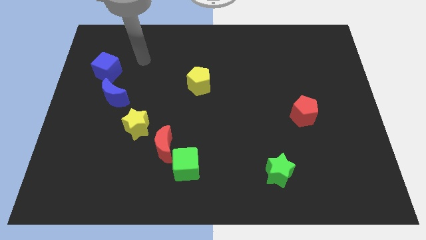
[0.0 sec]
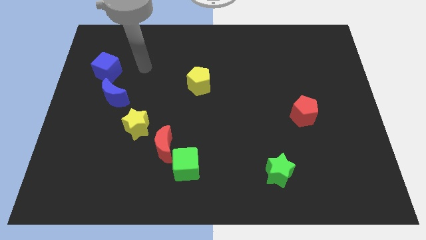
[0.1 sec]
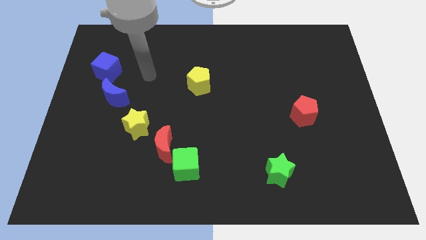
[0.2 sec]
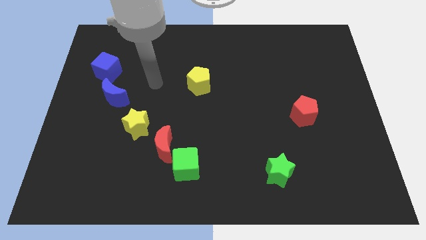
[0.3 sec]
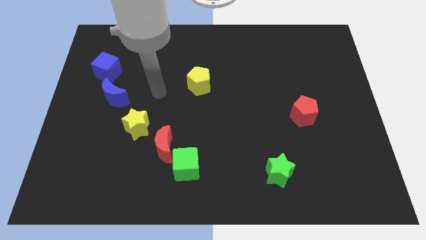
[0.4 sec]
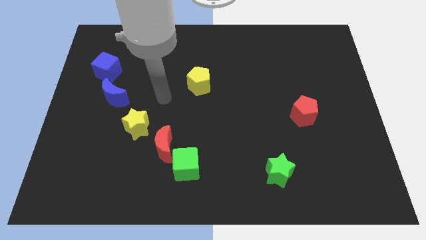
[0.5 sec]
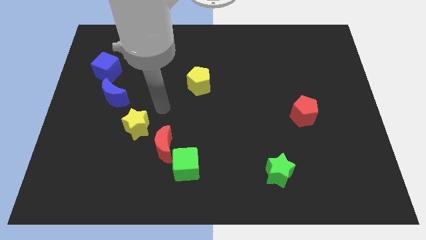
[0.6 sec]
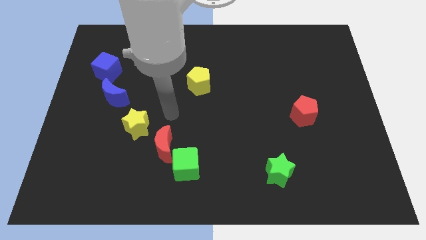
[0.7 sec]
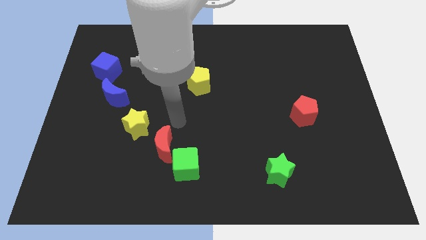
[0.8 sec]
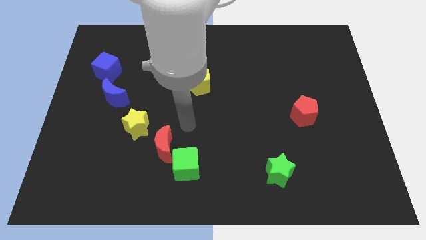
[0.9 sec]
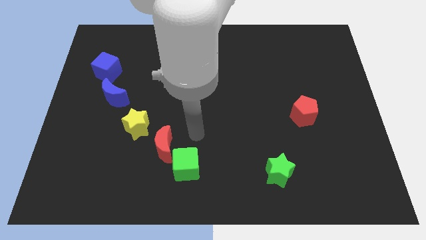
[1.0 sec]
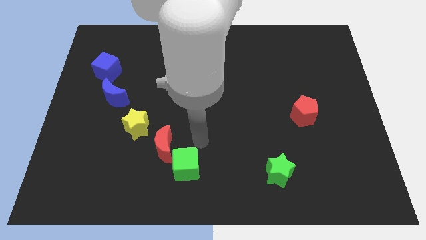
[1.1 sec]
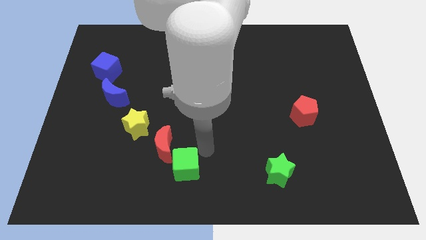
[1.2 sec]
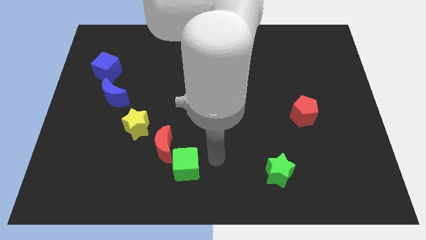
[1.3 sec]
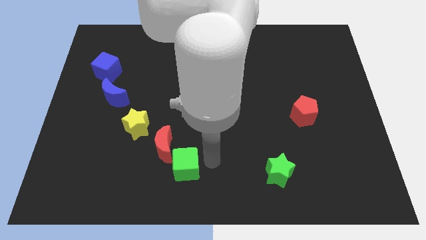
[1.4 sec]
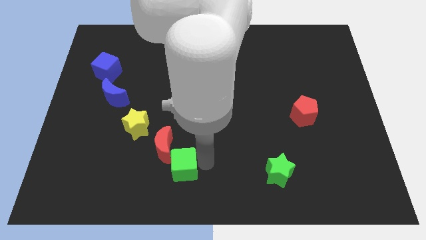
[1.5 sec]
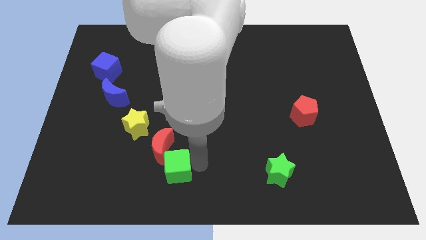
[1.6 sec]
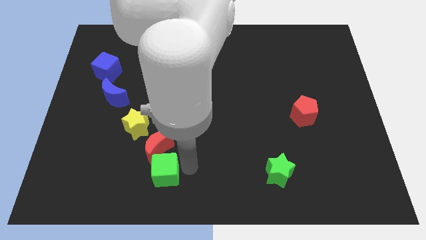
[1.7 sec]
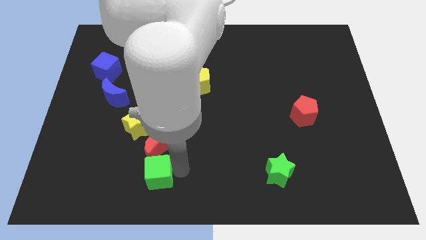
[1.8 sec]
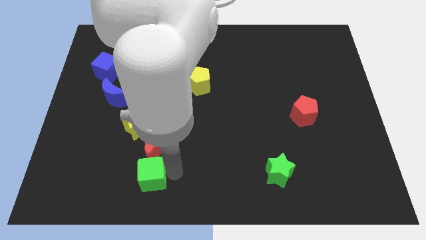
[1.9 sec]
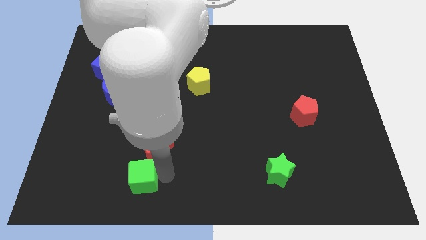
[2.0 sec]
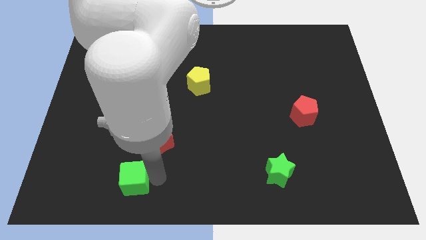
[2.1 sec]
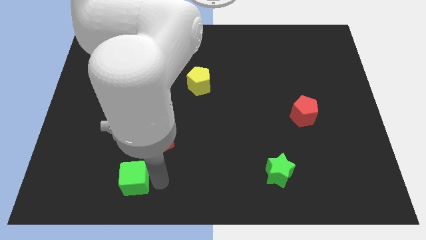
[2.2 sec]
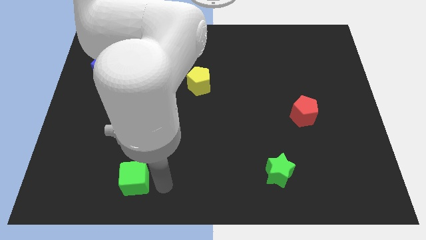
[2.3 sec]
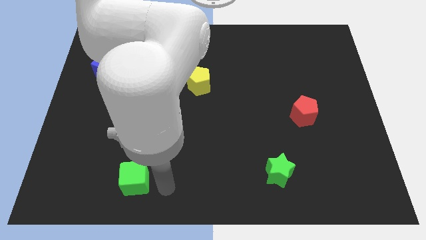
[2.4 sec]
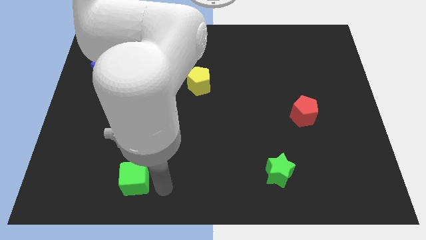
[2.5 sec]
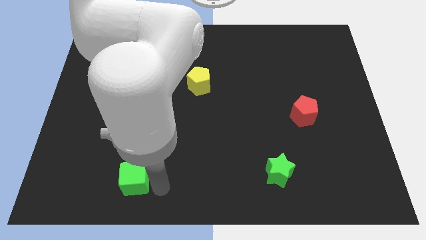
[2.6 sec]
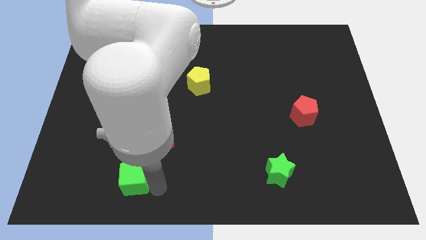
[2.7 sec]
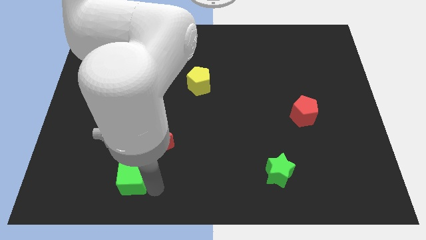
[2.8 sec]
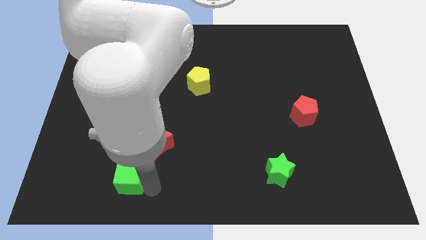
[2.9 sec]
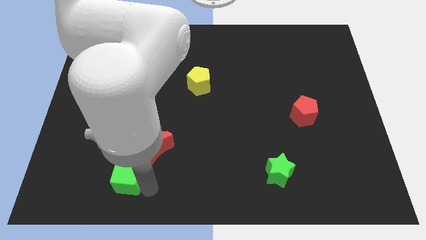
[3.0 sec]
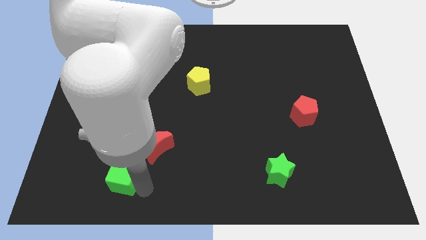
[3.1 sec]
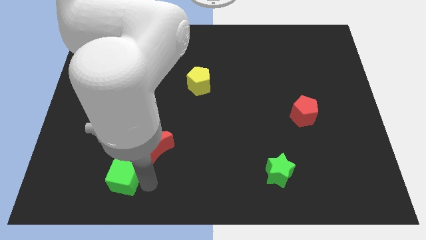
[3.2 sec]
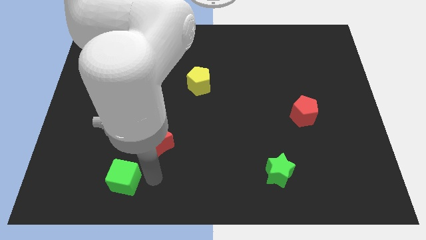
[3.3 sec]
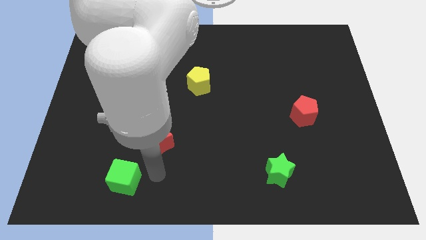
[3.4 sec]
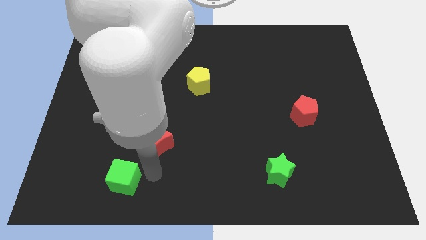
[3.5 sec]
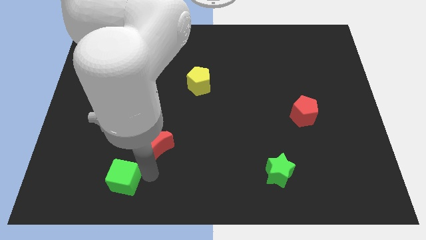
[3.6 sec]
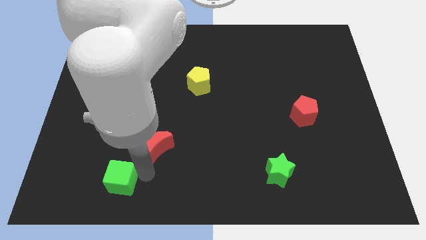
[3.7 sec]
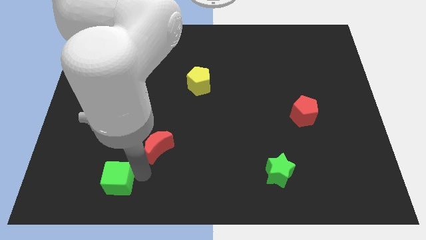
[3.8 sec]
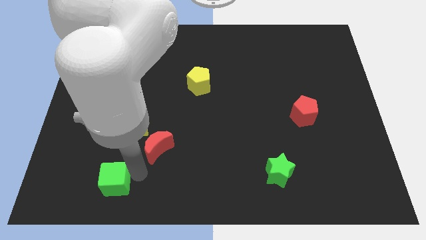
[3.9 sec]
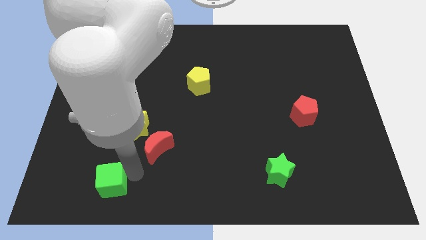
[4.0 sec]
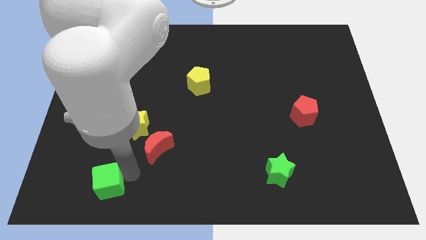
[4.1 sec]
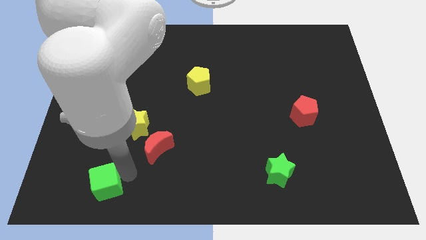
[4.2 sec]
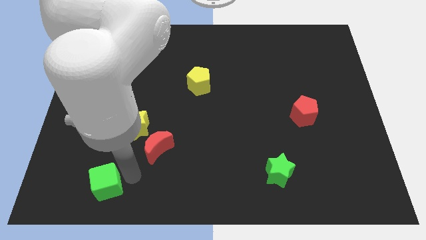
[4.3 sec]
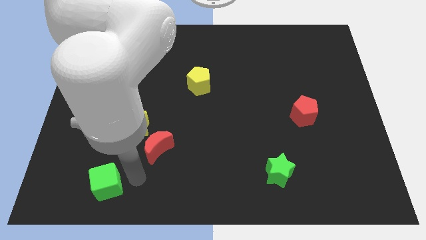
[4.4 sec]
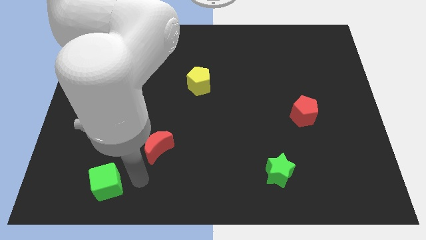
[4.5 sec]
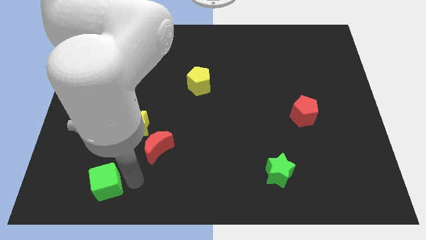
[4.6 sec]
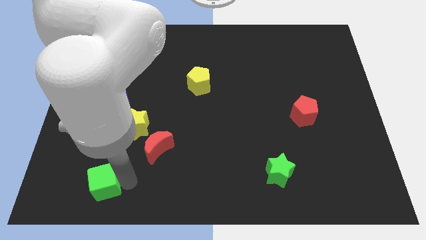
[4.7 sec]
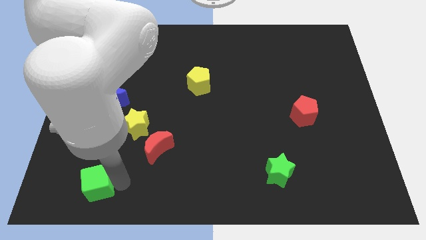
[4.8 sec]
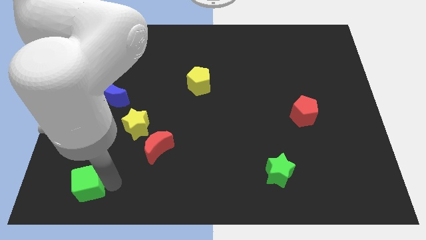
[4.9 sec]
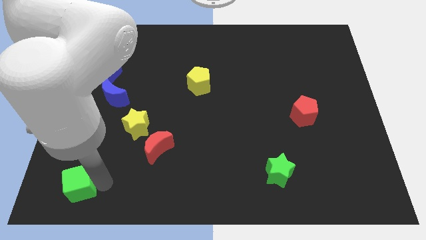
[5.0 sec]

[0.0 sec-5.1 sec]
move the green cube to the bottom left corner

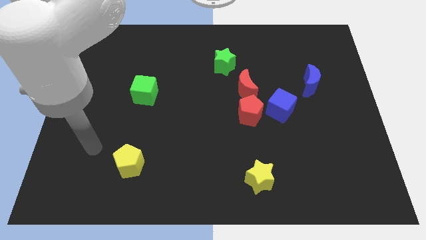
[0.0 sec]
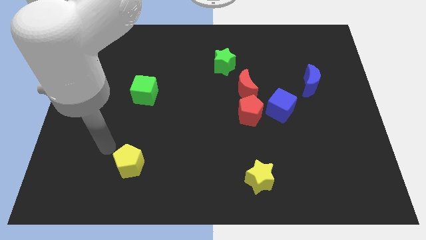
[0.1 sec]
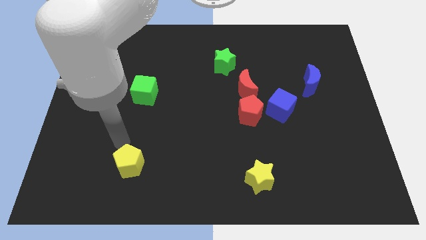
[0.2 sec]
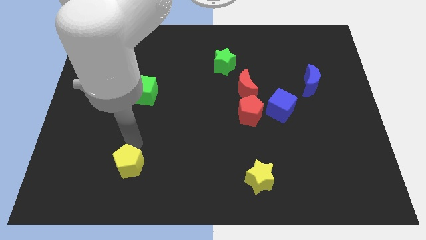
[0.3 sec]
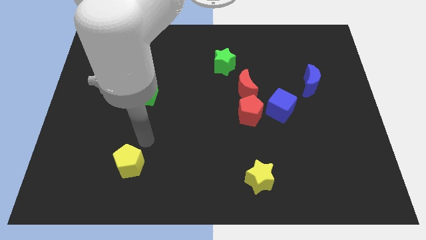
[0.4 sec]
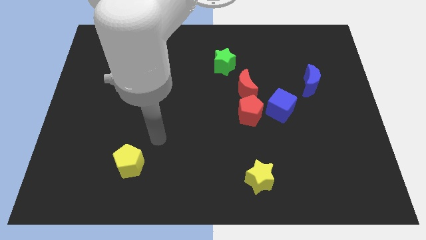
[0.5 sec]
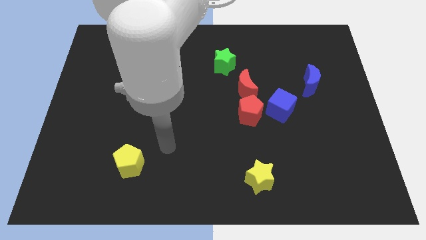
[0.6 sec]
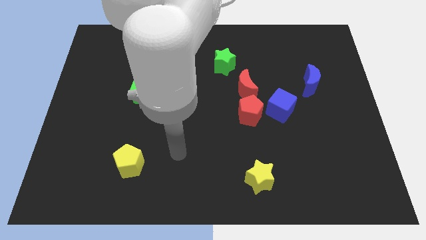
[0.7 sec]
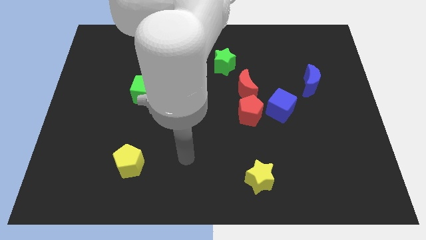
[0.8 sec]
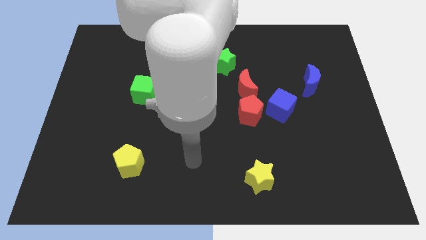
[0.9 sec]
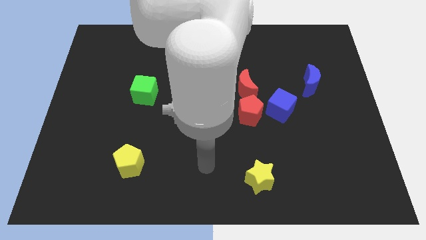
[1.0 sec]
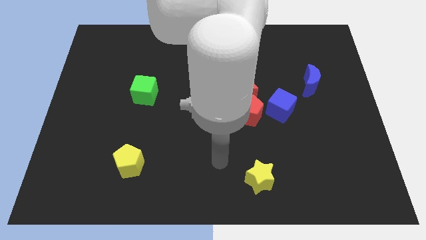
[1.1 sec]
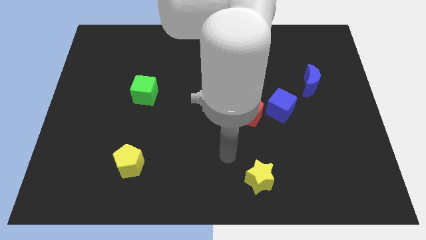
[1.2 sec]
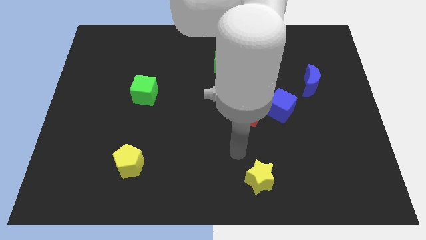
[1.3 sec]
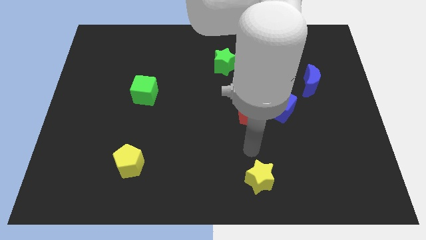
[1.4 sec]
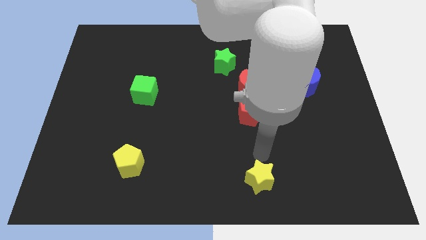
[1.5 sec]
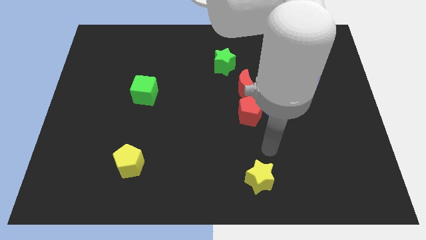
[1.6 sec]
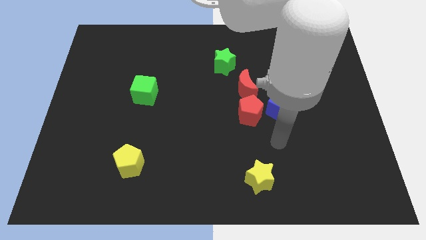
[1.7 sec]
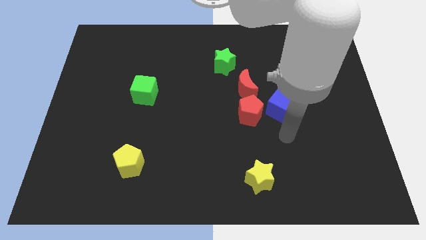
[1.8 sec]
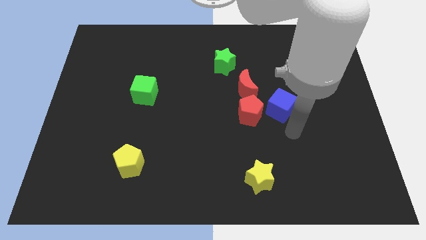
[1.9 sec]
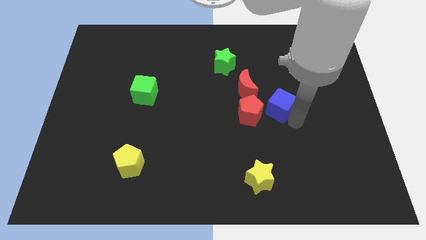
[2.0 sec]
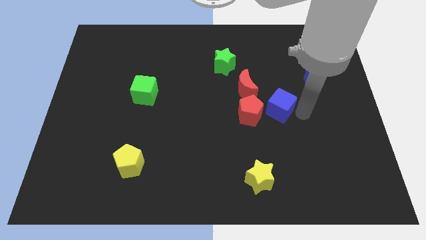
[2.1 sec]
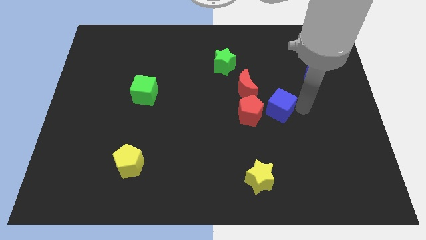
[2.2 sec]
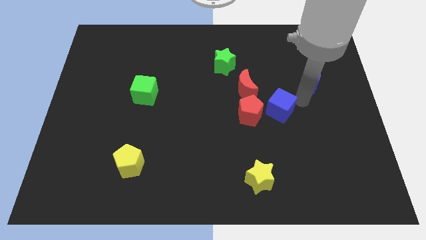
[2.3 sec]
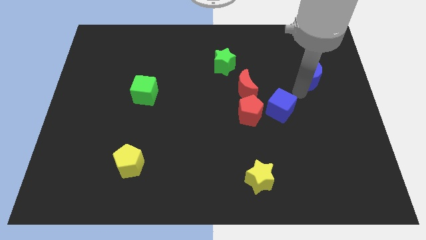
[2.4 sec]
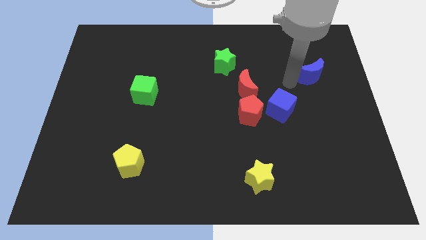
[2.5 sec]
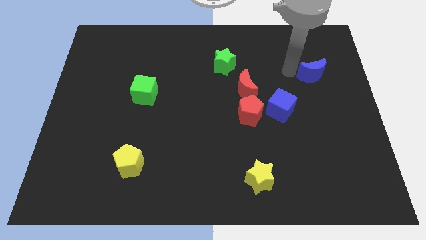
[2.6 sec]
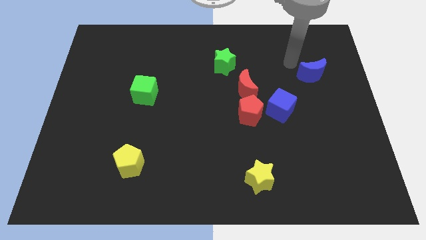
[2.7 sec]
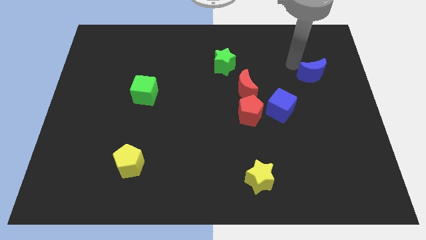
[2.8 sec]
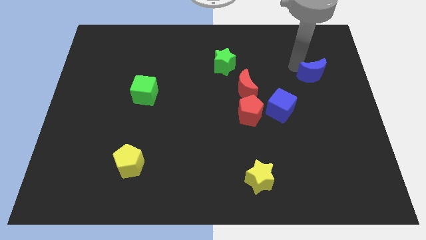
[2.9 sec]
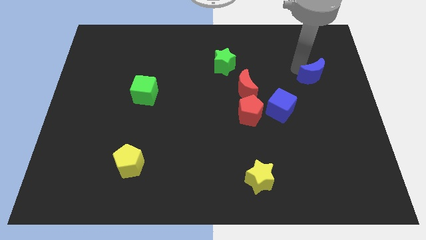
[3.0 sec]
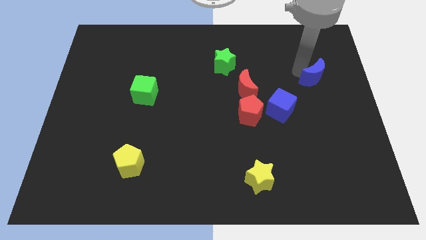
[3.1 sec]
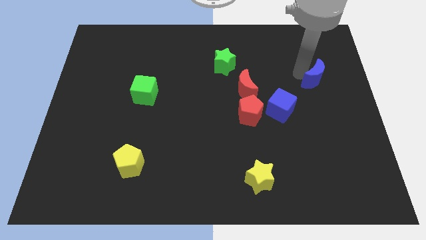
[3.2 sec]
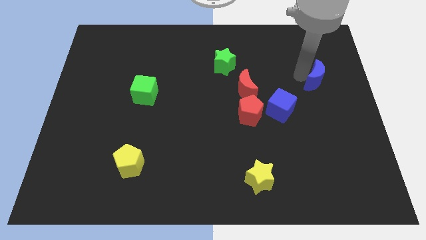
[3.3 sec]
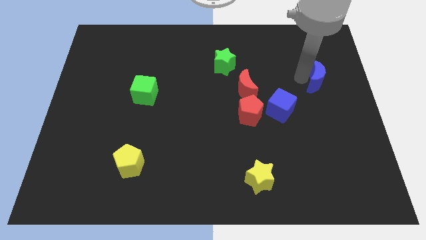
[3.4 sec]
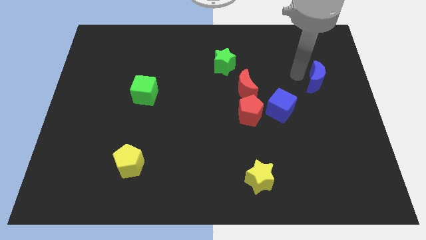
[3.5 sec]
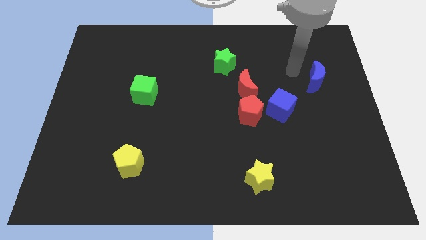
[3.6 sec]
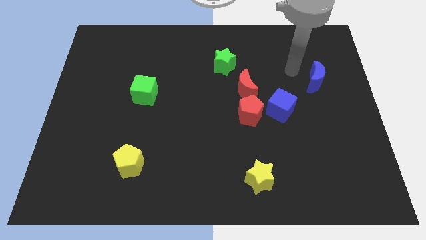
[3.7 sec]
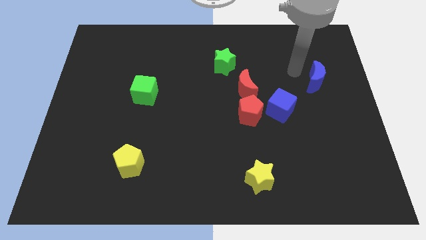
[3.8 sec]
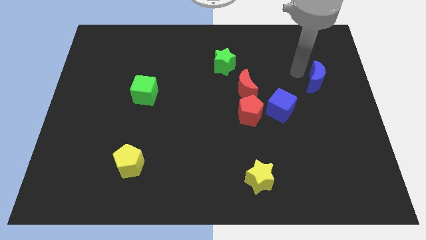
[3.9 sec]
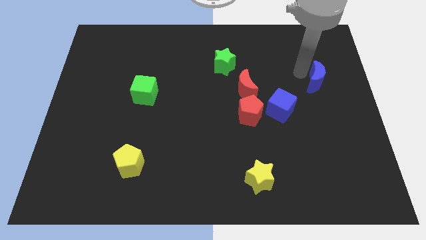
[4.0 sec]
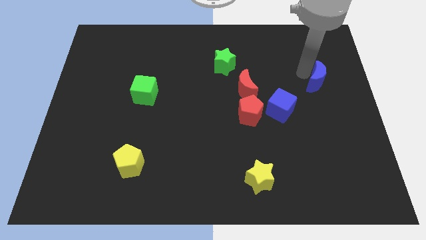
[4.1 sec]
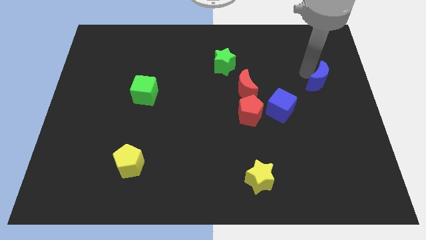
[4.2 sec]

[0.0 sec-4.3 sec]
slide the blue moon to the right side
